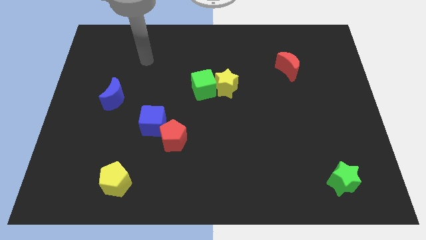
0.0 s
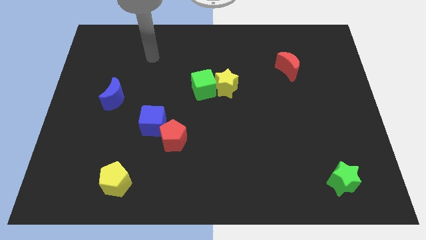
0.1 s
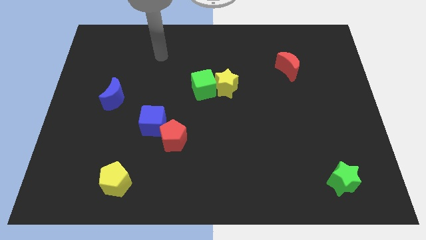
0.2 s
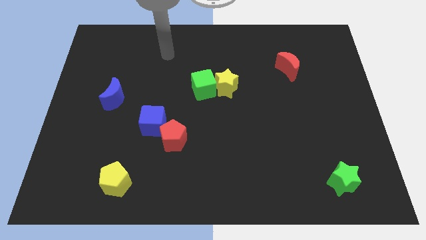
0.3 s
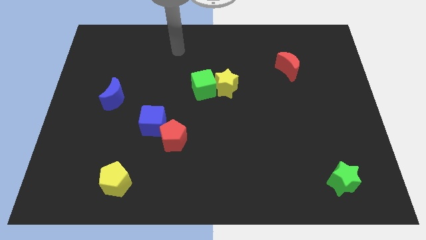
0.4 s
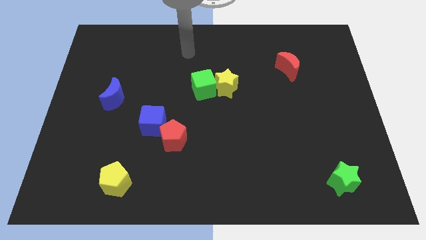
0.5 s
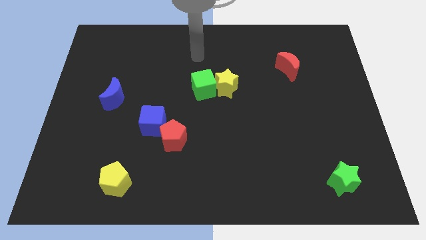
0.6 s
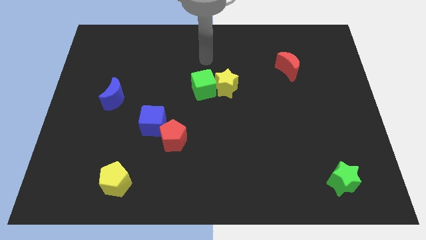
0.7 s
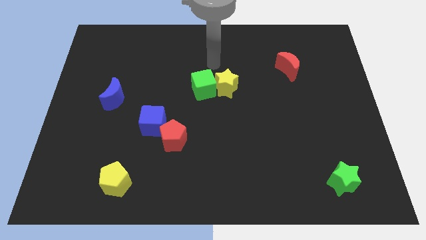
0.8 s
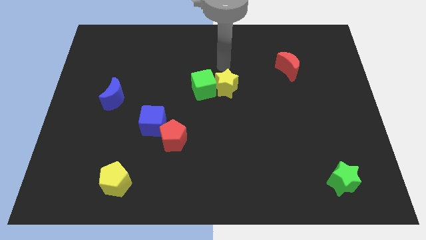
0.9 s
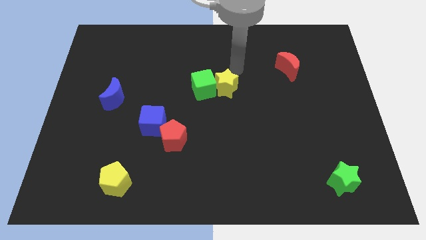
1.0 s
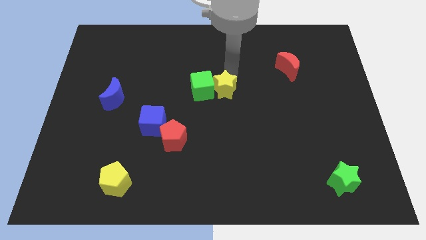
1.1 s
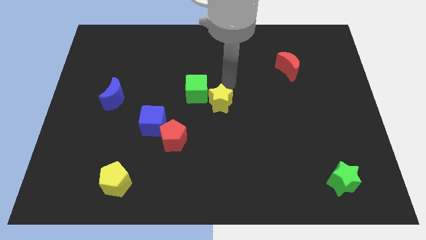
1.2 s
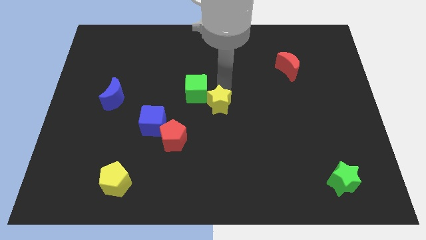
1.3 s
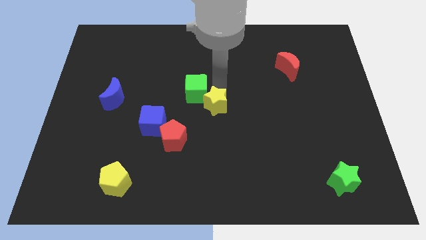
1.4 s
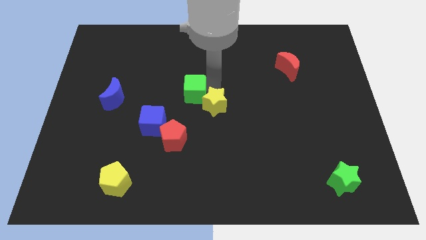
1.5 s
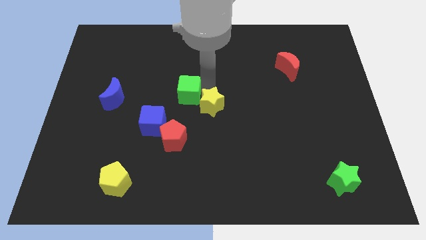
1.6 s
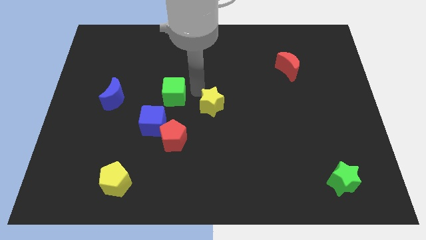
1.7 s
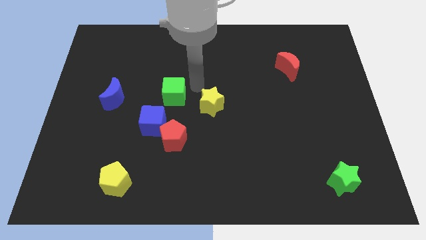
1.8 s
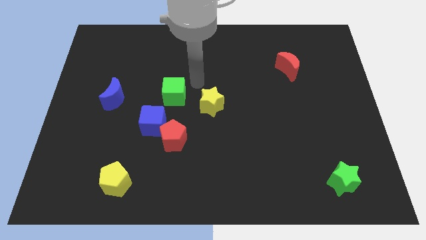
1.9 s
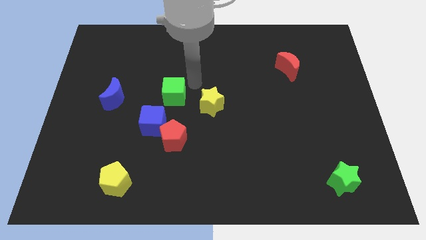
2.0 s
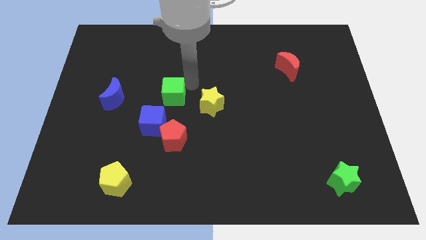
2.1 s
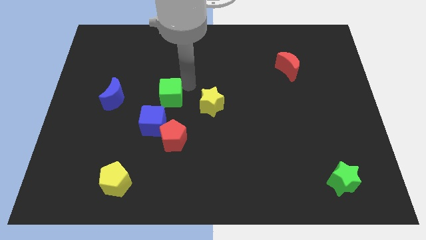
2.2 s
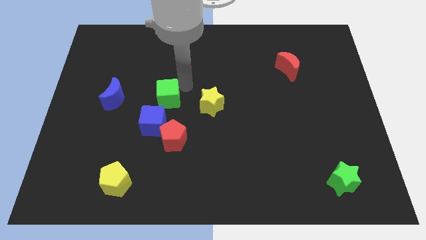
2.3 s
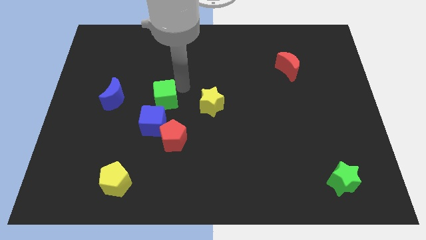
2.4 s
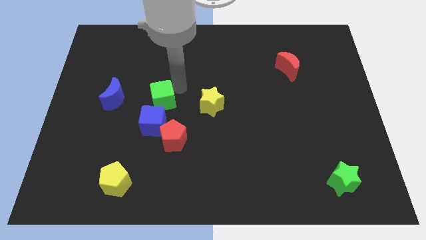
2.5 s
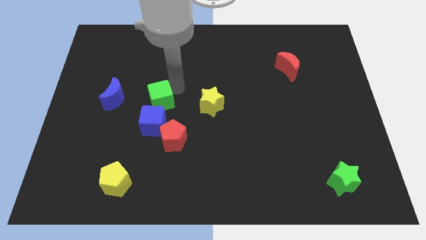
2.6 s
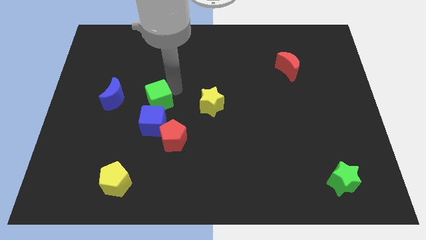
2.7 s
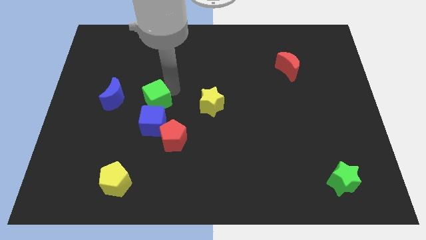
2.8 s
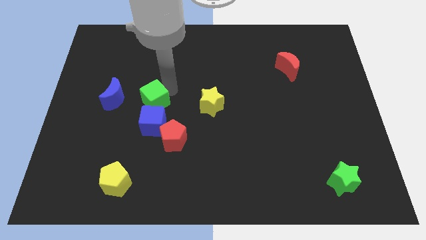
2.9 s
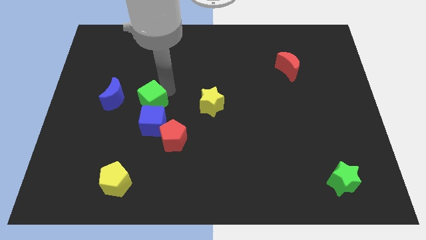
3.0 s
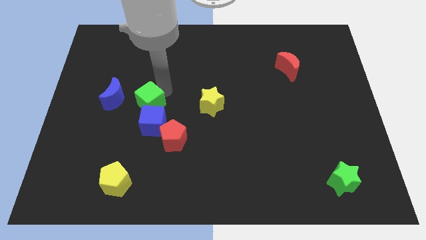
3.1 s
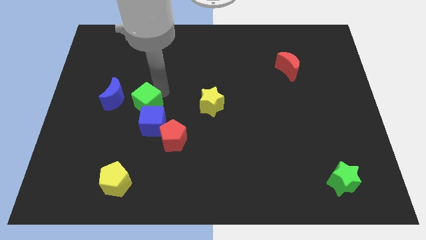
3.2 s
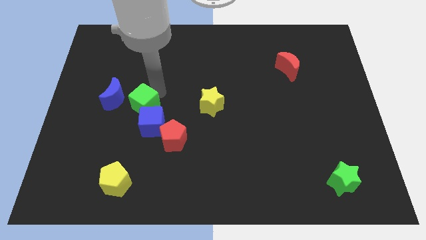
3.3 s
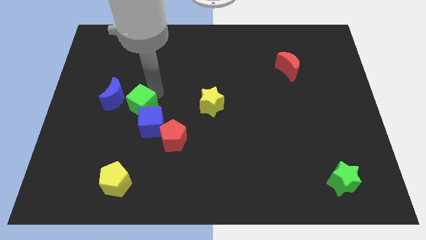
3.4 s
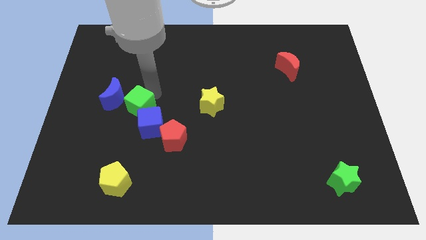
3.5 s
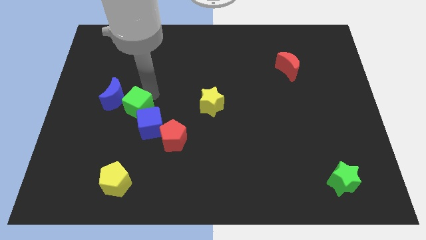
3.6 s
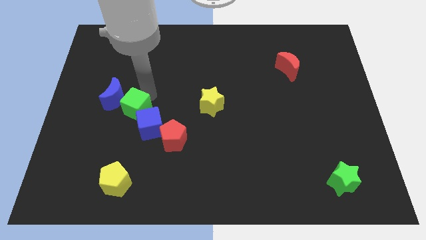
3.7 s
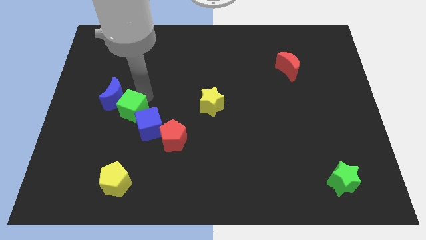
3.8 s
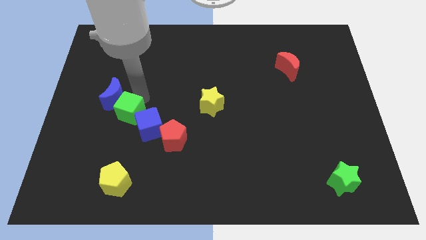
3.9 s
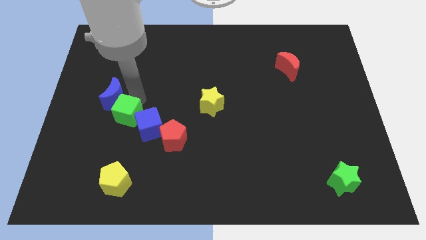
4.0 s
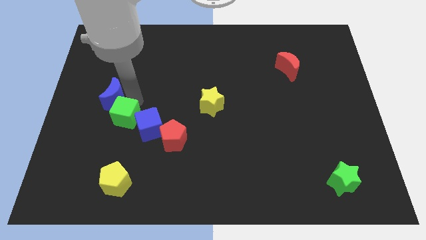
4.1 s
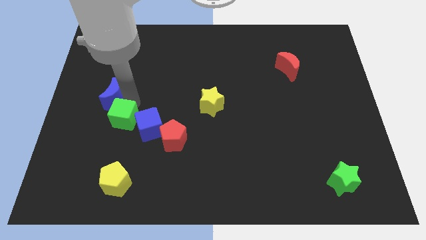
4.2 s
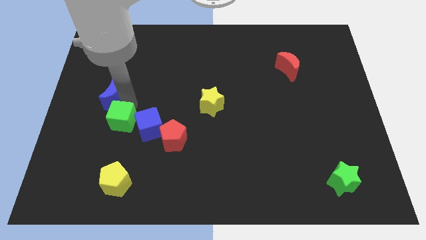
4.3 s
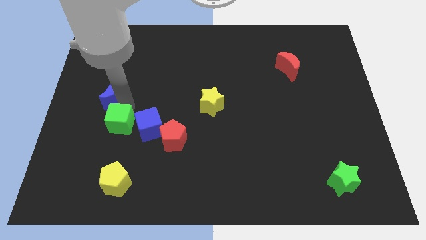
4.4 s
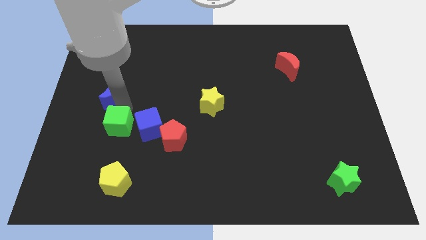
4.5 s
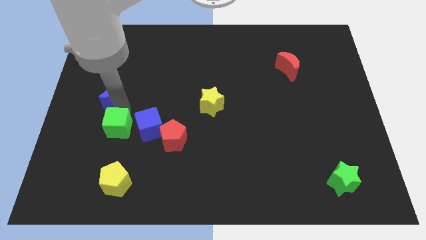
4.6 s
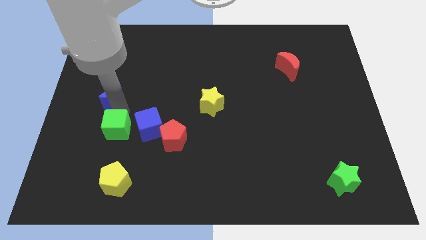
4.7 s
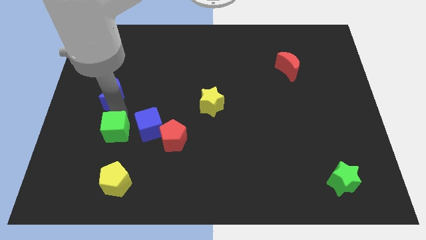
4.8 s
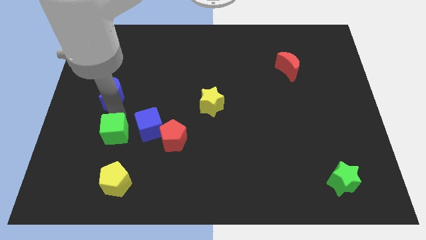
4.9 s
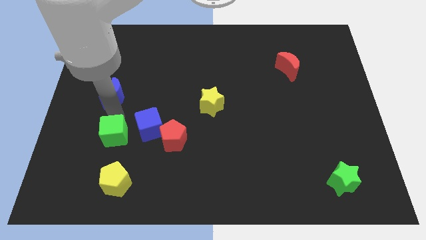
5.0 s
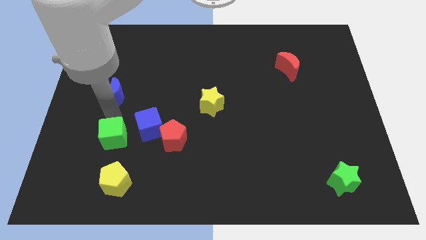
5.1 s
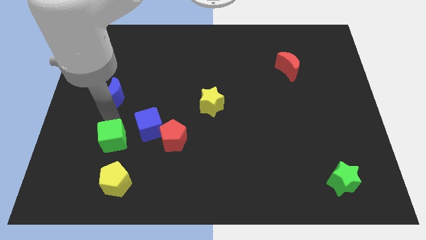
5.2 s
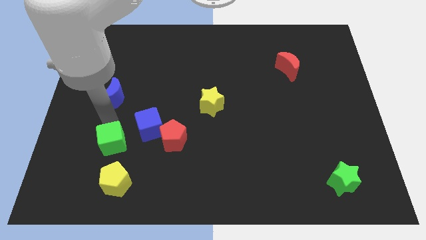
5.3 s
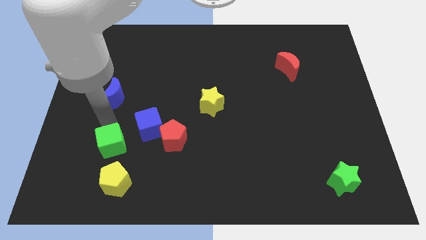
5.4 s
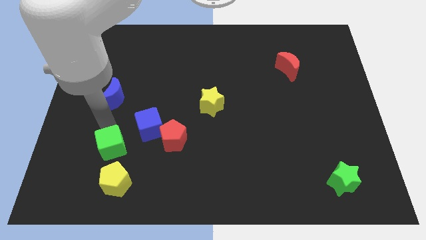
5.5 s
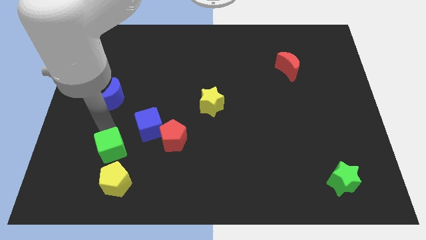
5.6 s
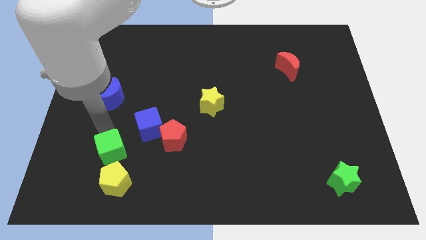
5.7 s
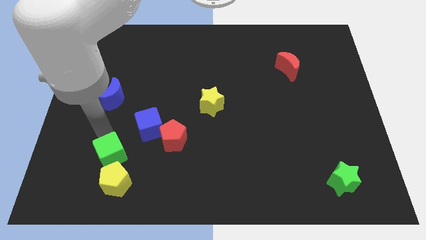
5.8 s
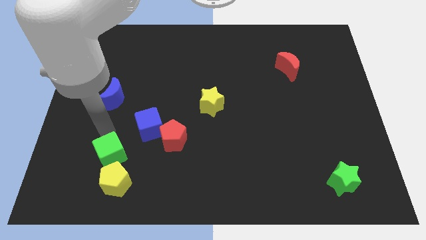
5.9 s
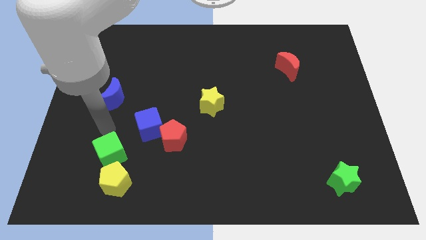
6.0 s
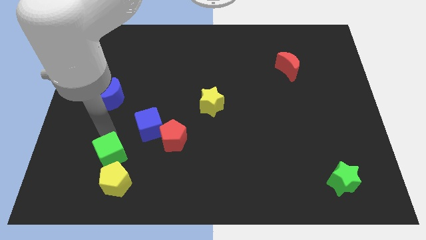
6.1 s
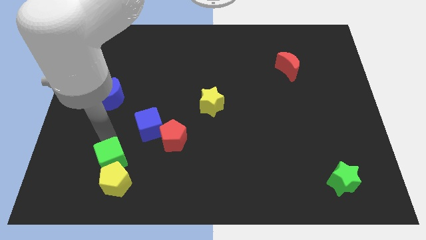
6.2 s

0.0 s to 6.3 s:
put the green cube towards the yellow pentagon

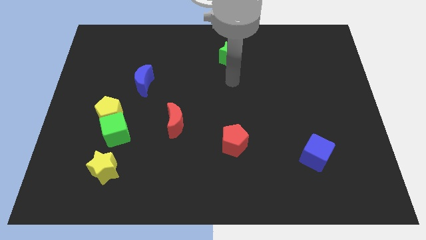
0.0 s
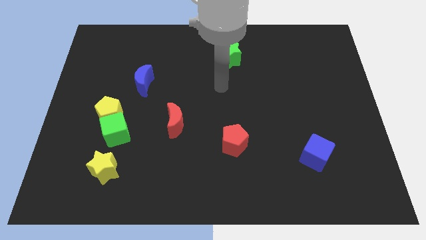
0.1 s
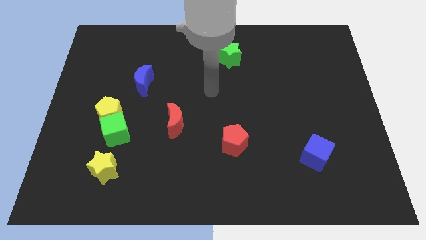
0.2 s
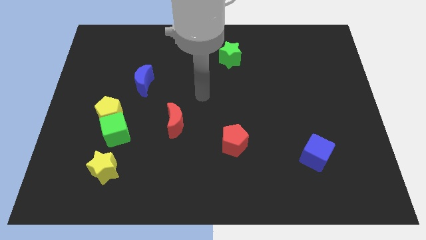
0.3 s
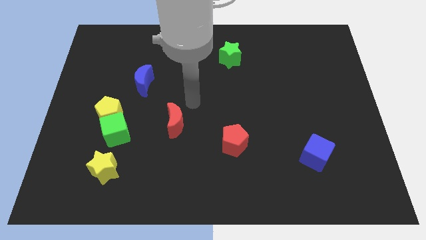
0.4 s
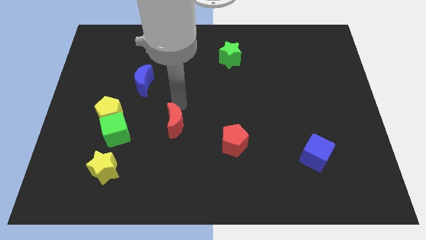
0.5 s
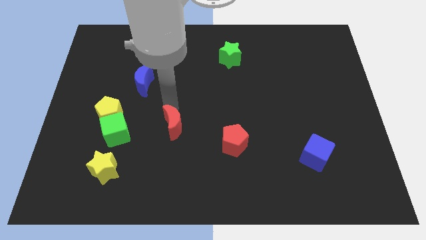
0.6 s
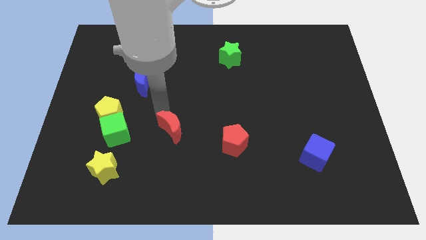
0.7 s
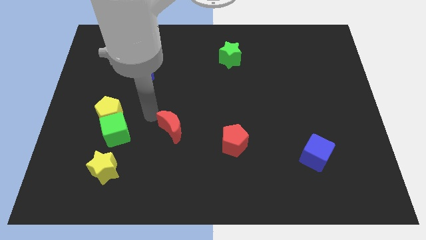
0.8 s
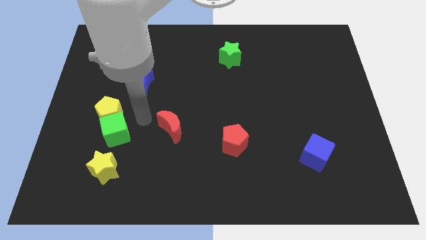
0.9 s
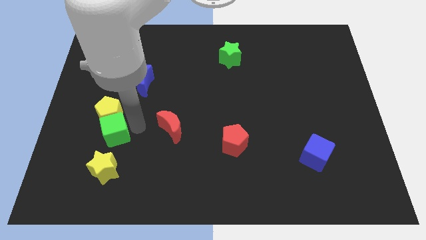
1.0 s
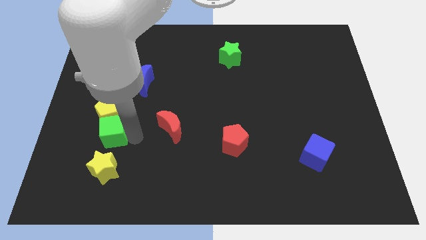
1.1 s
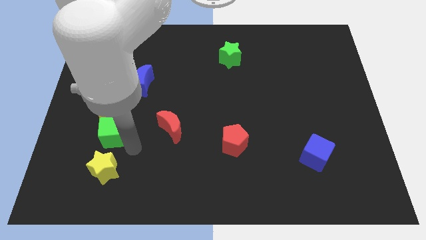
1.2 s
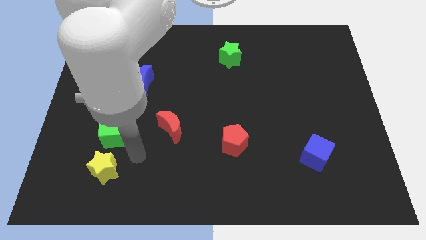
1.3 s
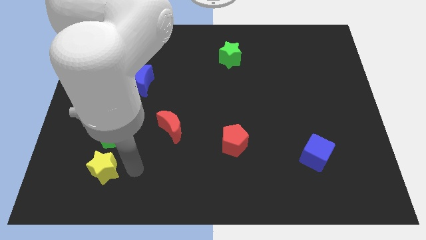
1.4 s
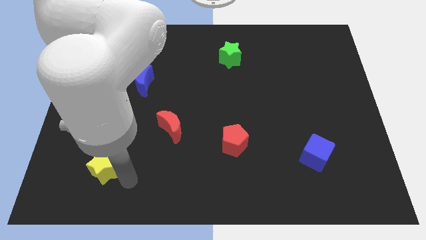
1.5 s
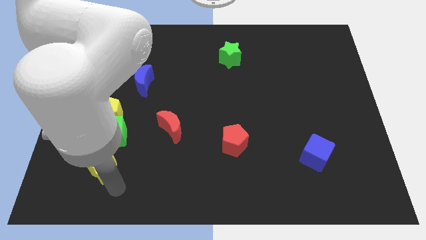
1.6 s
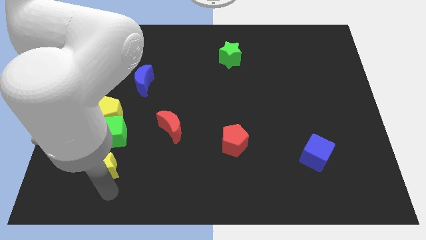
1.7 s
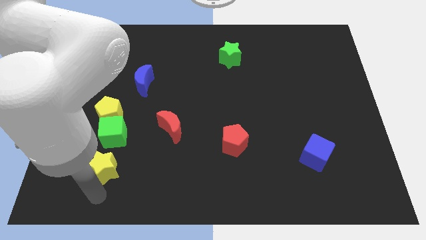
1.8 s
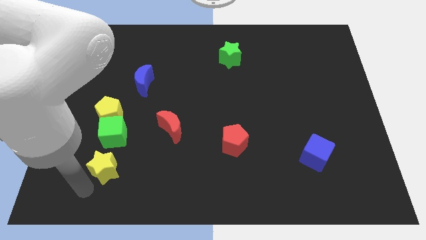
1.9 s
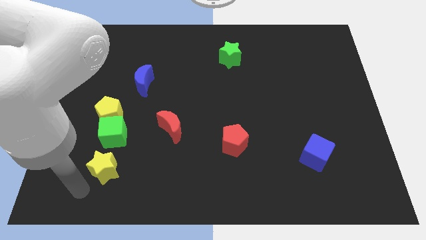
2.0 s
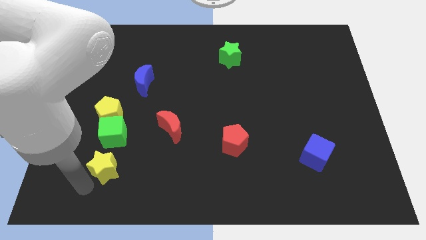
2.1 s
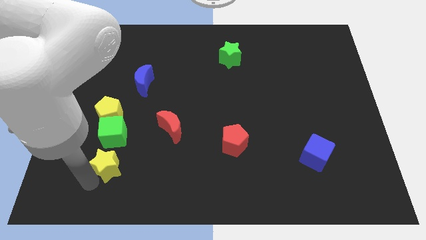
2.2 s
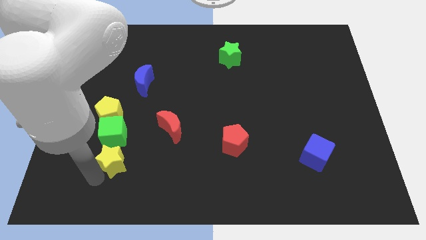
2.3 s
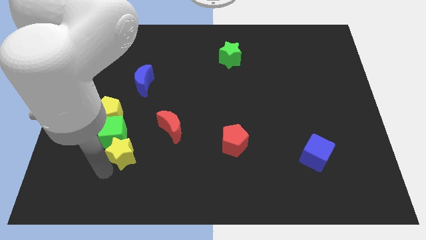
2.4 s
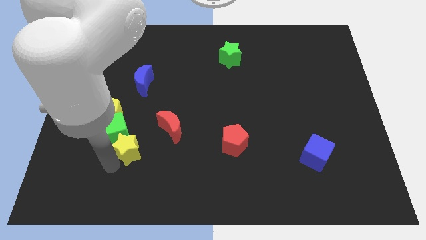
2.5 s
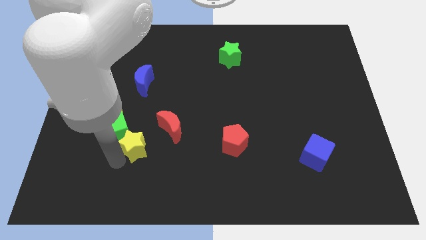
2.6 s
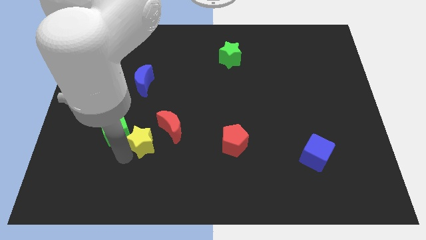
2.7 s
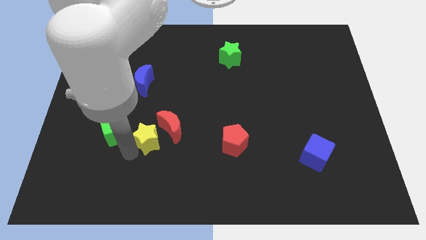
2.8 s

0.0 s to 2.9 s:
move the yellow star close to the red moon
